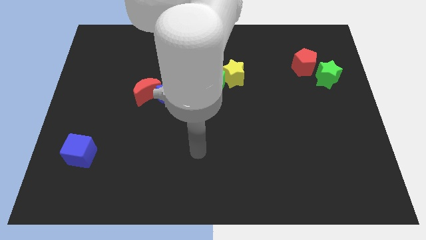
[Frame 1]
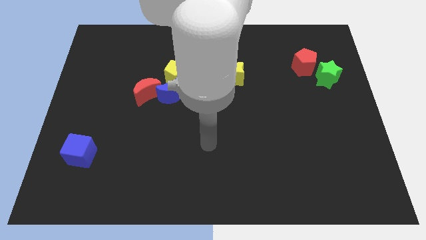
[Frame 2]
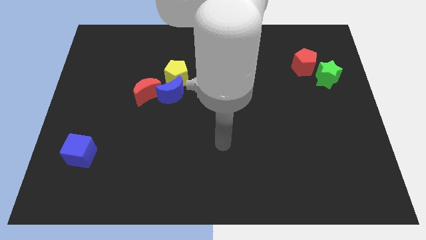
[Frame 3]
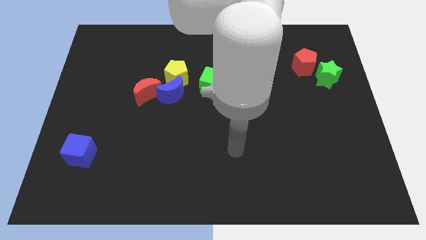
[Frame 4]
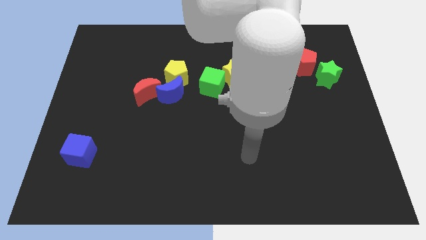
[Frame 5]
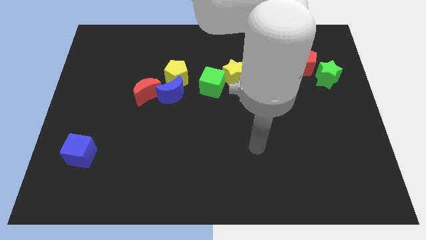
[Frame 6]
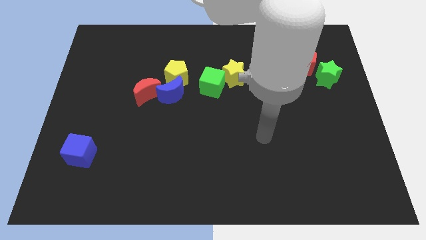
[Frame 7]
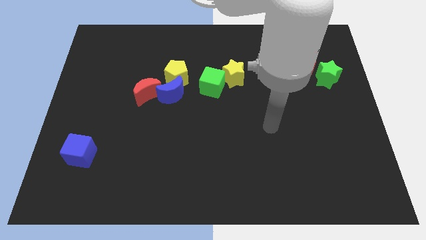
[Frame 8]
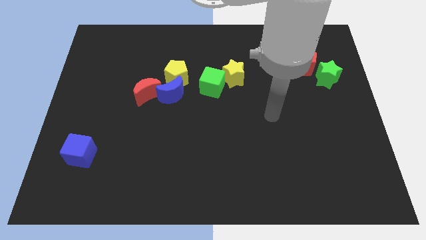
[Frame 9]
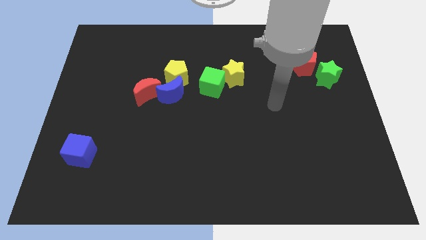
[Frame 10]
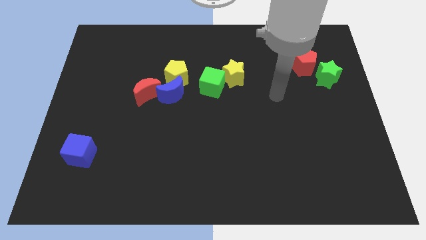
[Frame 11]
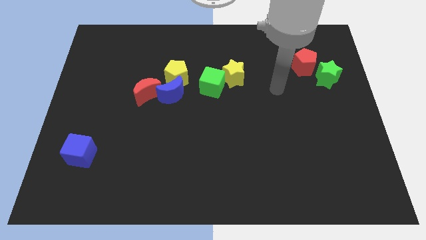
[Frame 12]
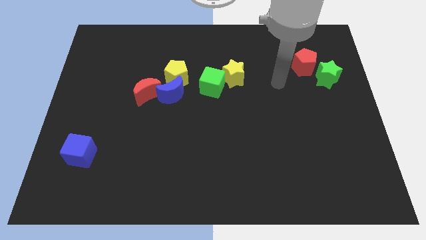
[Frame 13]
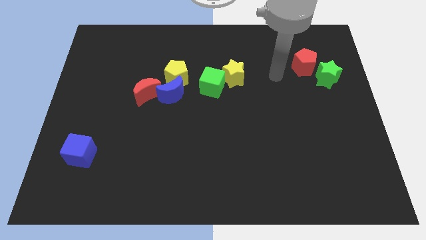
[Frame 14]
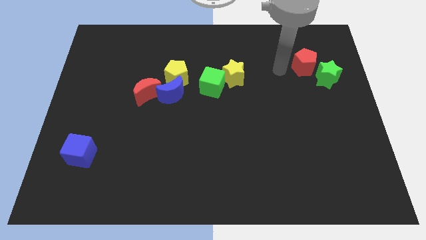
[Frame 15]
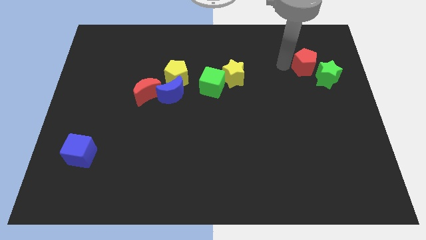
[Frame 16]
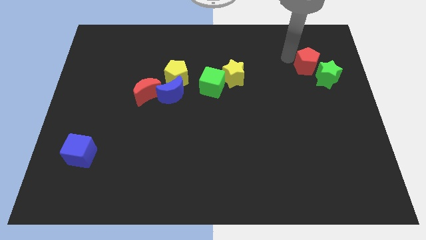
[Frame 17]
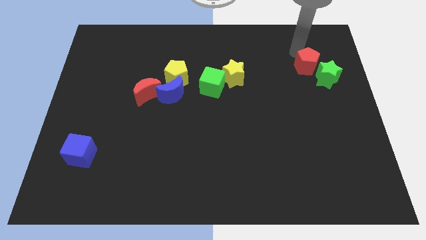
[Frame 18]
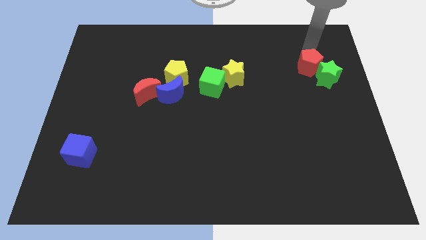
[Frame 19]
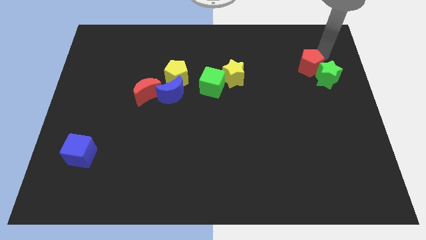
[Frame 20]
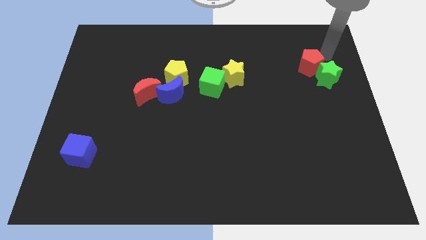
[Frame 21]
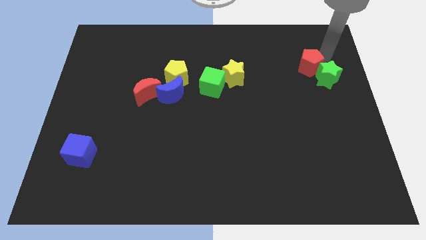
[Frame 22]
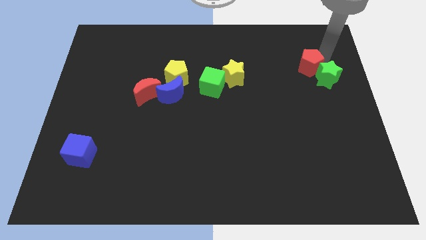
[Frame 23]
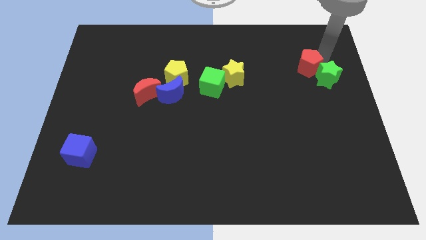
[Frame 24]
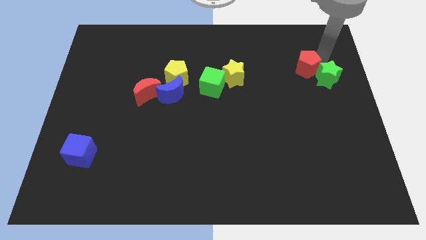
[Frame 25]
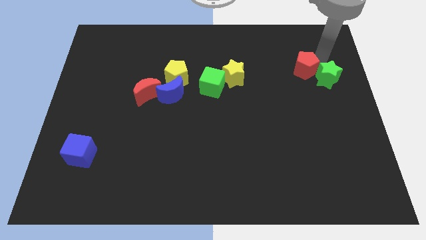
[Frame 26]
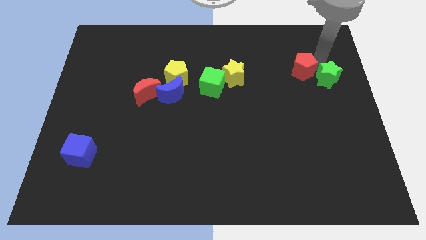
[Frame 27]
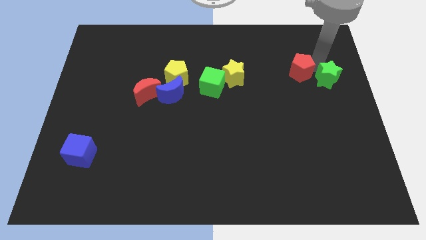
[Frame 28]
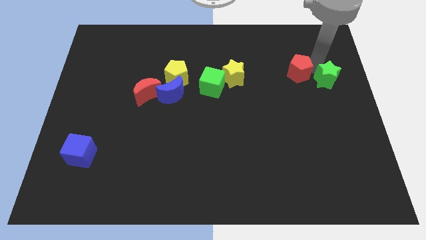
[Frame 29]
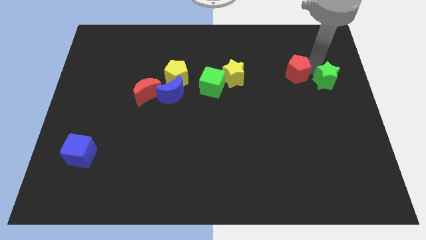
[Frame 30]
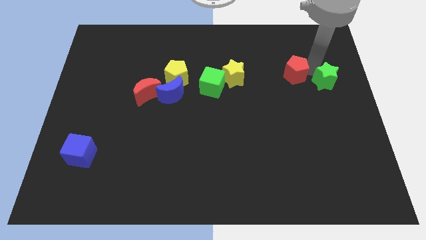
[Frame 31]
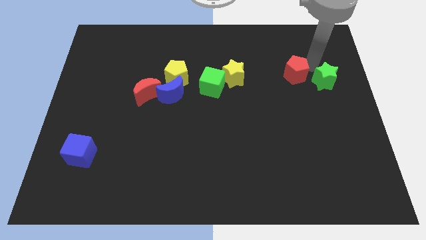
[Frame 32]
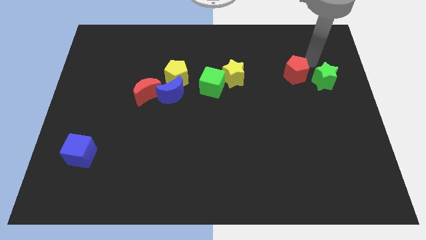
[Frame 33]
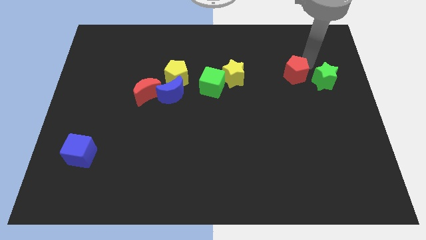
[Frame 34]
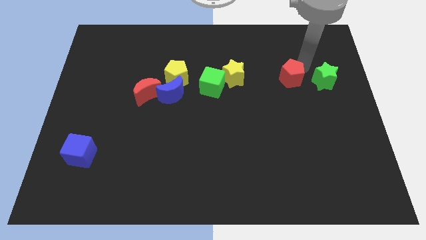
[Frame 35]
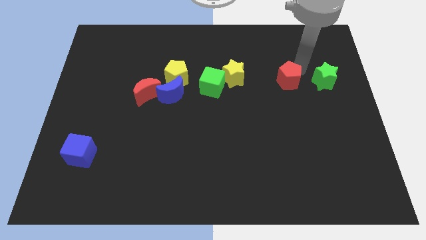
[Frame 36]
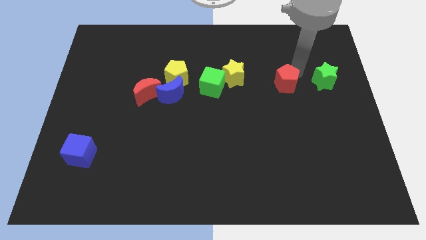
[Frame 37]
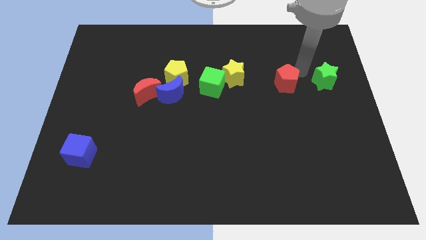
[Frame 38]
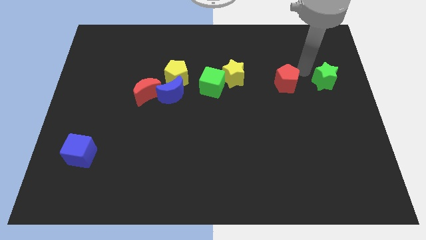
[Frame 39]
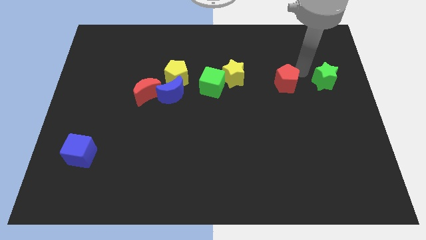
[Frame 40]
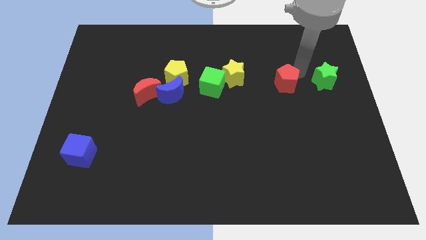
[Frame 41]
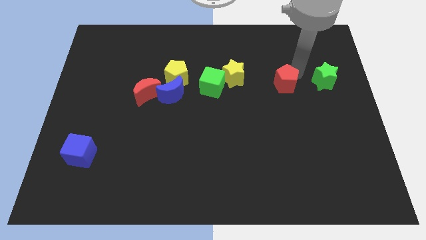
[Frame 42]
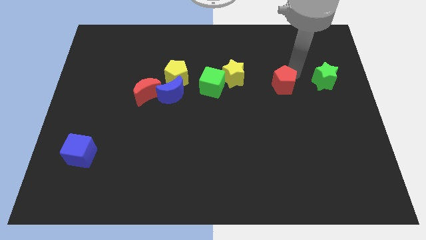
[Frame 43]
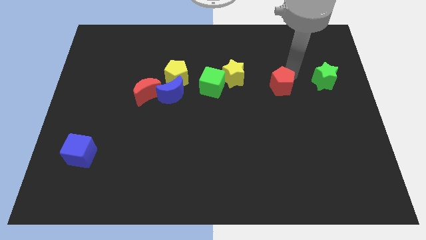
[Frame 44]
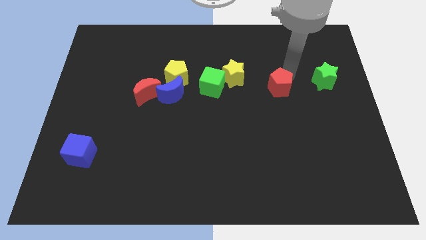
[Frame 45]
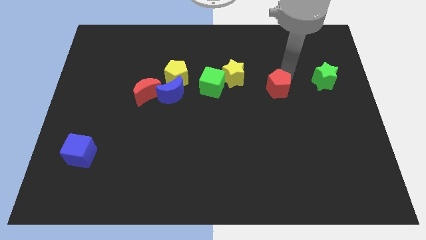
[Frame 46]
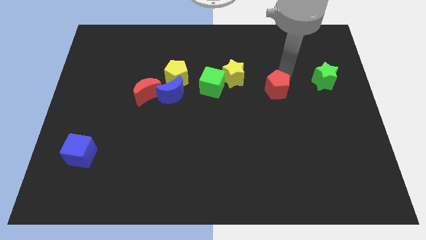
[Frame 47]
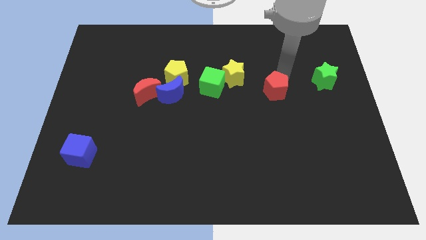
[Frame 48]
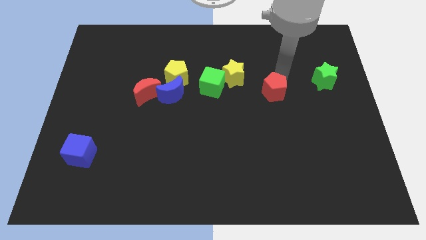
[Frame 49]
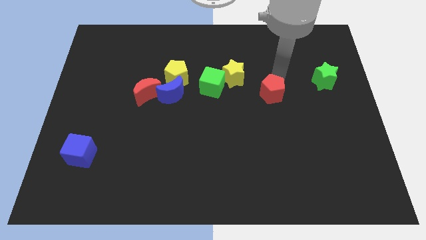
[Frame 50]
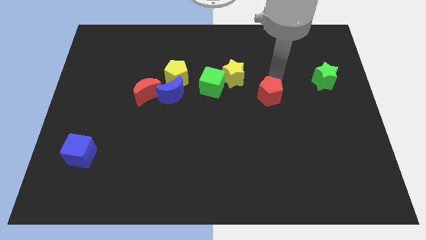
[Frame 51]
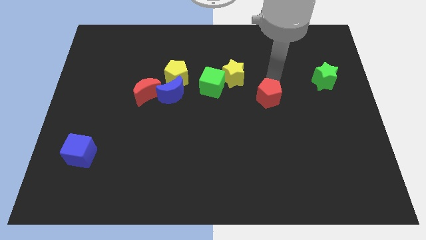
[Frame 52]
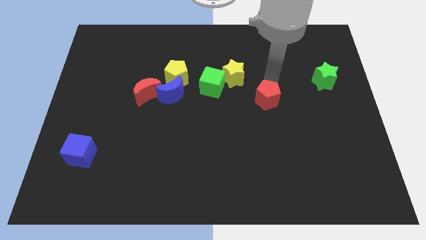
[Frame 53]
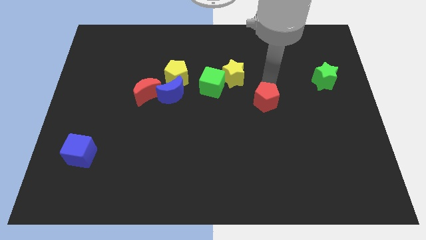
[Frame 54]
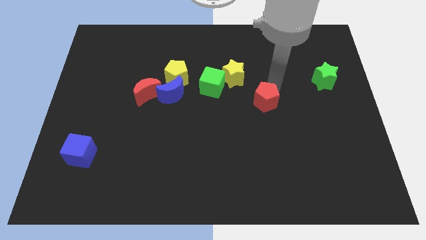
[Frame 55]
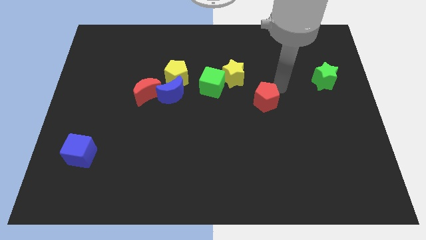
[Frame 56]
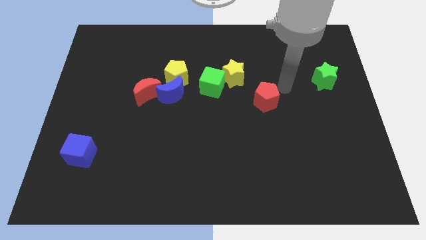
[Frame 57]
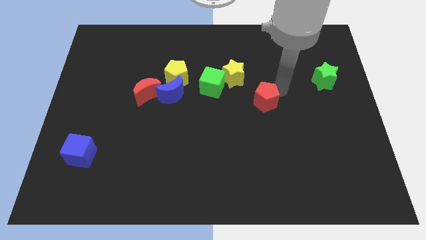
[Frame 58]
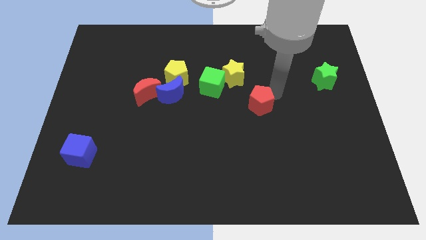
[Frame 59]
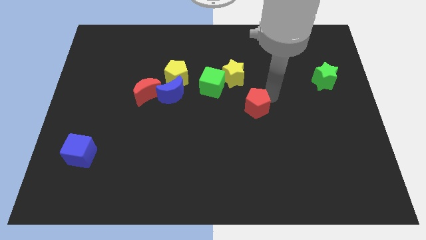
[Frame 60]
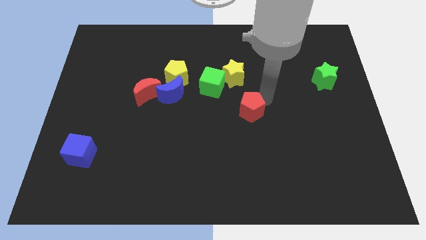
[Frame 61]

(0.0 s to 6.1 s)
move the red pentagon down and to the left

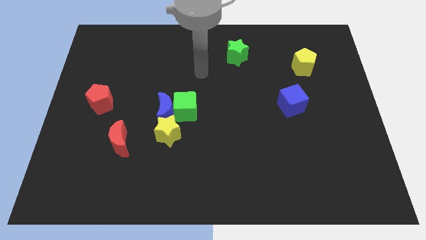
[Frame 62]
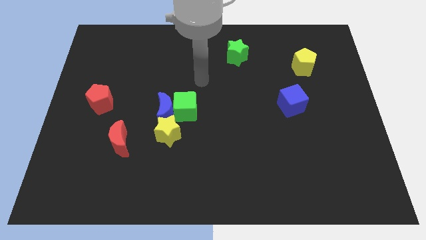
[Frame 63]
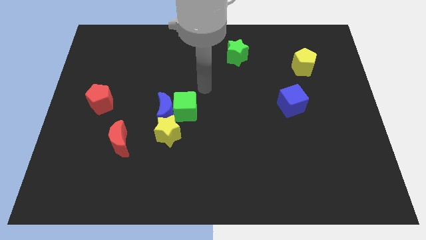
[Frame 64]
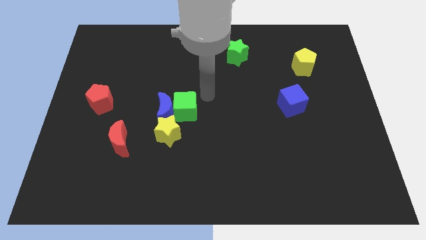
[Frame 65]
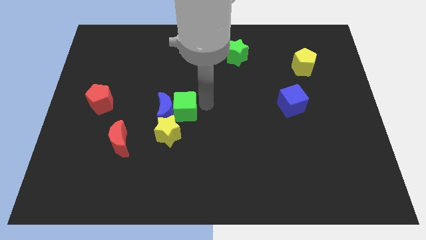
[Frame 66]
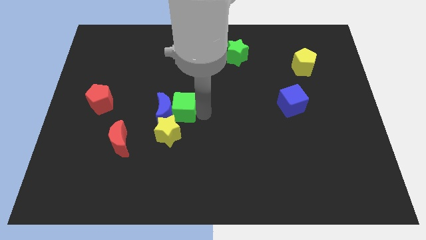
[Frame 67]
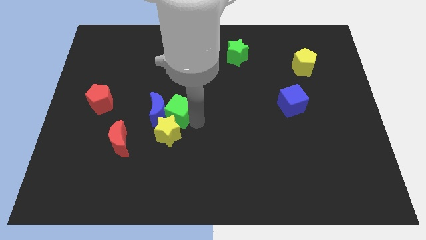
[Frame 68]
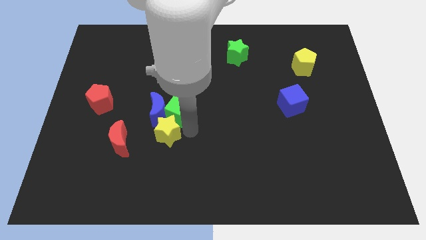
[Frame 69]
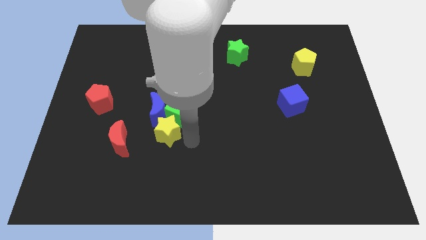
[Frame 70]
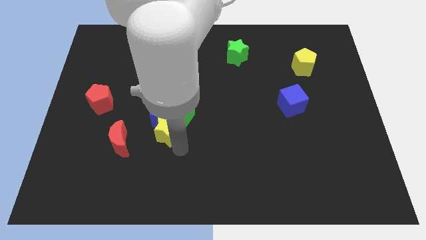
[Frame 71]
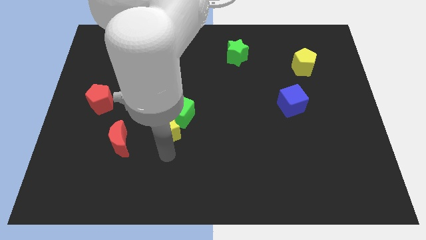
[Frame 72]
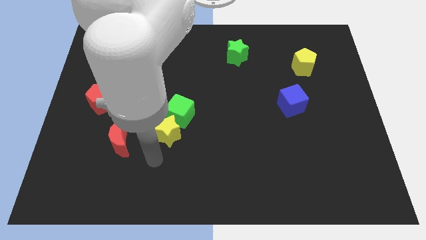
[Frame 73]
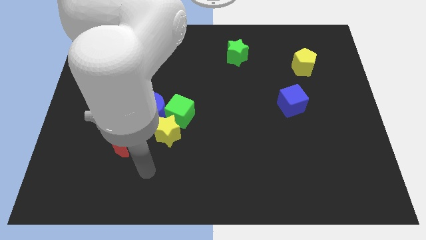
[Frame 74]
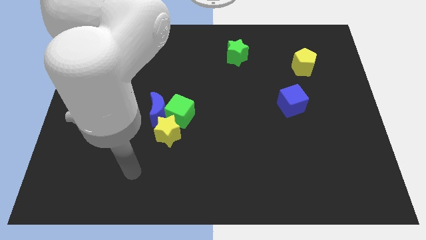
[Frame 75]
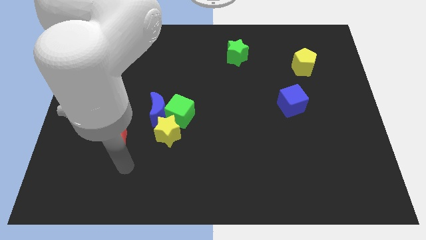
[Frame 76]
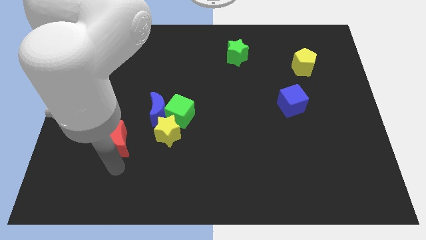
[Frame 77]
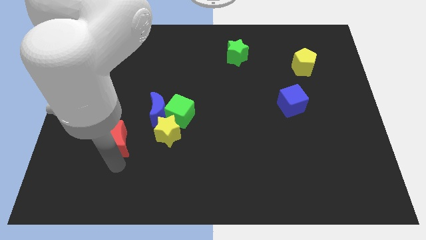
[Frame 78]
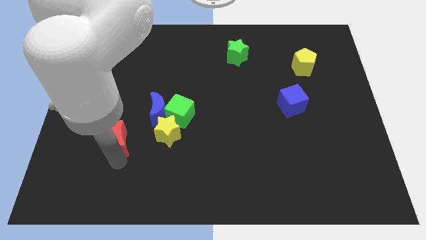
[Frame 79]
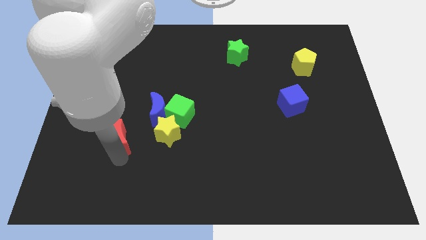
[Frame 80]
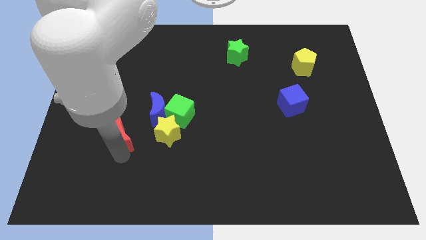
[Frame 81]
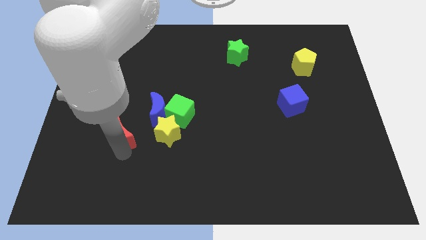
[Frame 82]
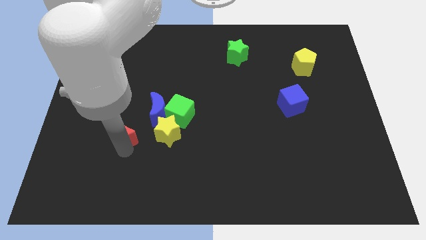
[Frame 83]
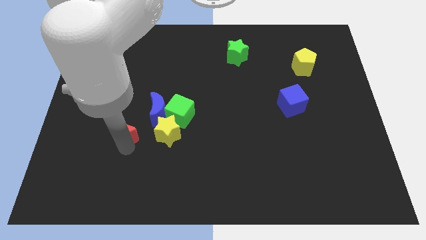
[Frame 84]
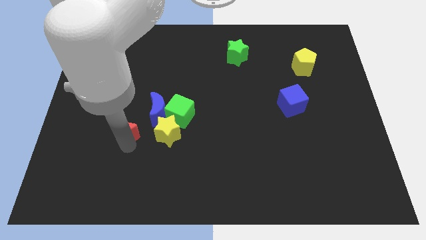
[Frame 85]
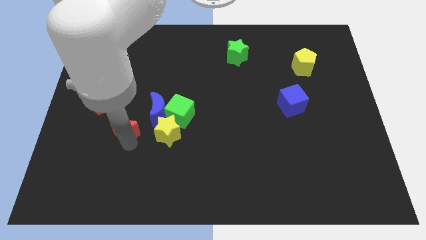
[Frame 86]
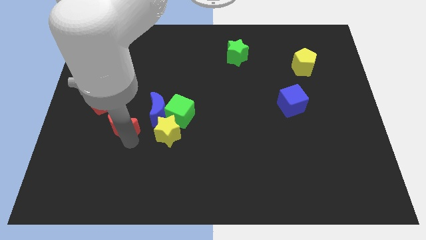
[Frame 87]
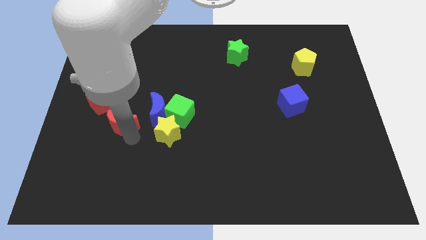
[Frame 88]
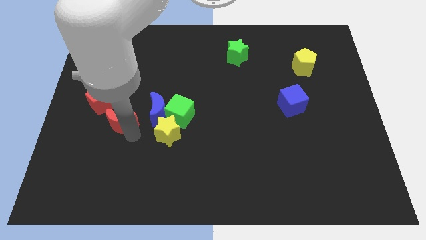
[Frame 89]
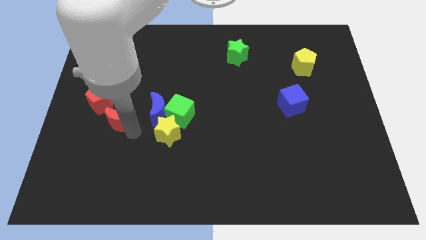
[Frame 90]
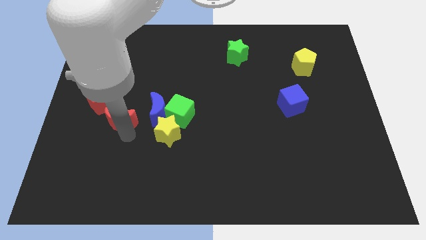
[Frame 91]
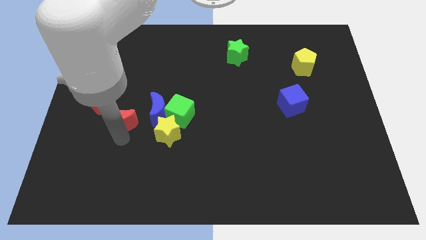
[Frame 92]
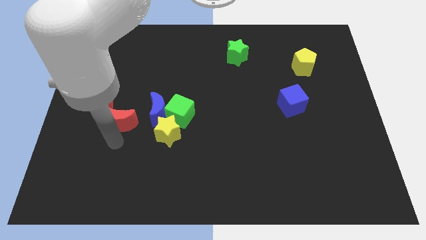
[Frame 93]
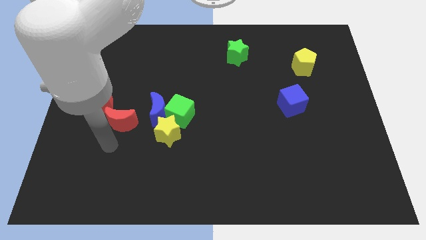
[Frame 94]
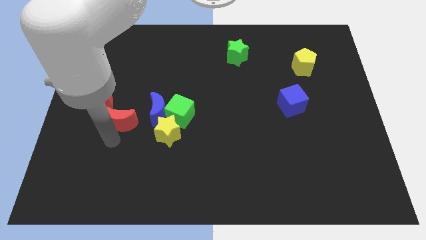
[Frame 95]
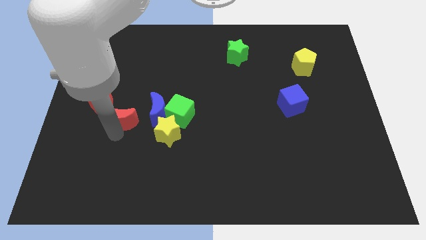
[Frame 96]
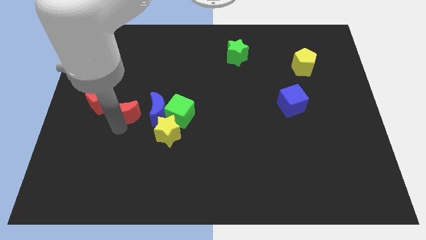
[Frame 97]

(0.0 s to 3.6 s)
slightly slide the red moon upwards
